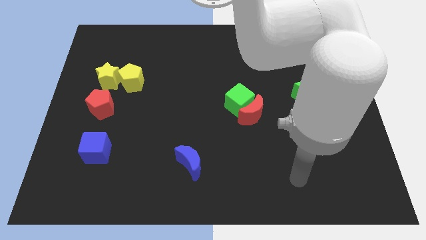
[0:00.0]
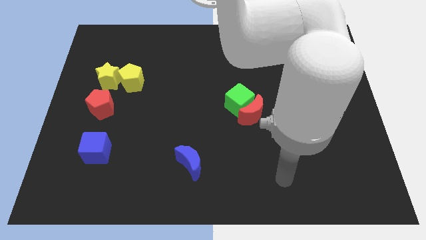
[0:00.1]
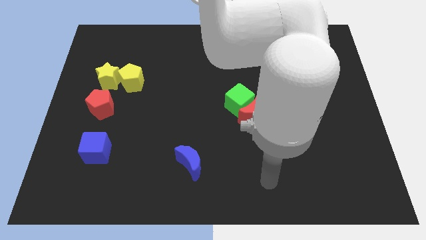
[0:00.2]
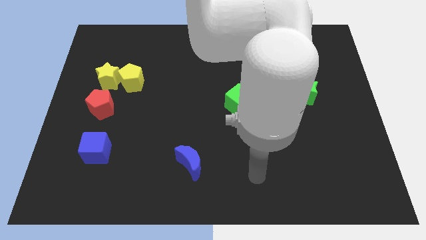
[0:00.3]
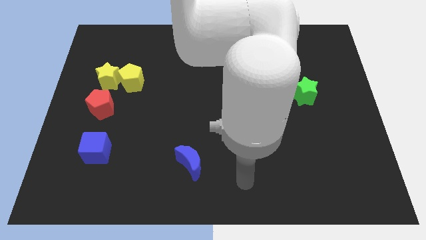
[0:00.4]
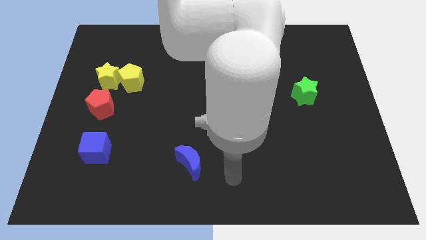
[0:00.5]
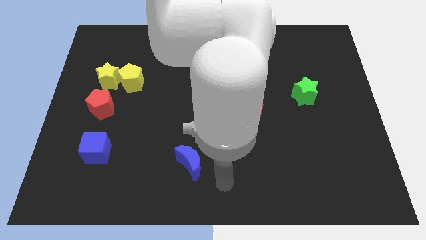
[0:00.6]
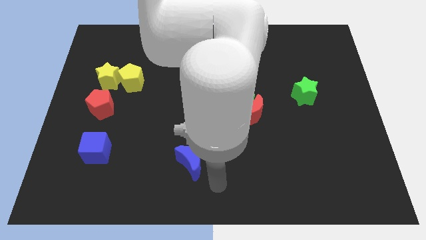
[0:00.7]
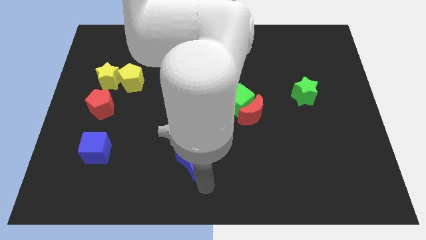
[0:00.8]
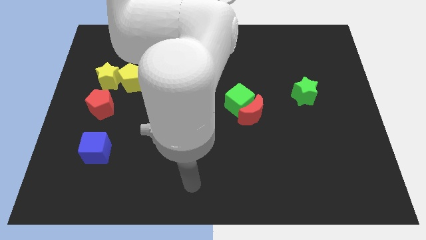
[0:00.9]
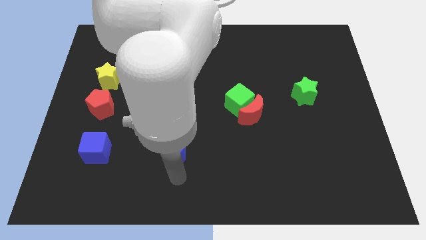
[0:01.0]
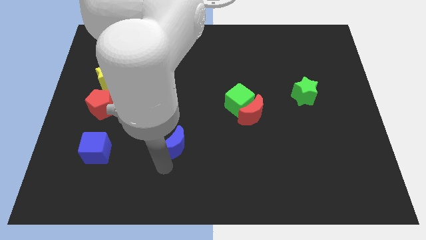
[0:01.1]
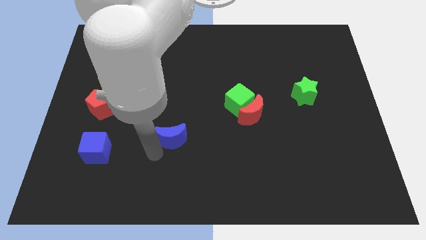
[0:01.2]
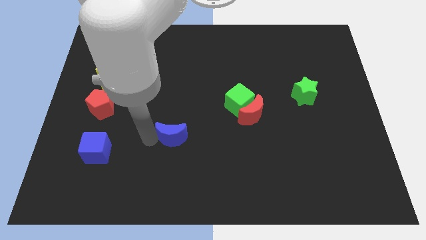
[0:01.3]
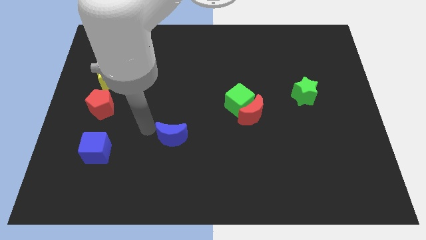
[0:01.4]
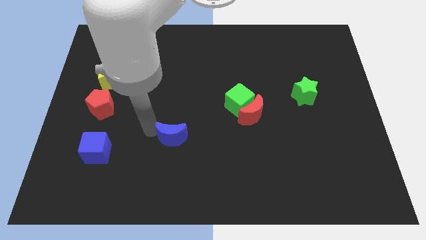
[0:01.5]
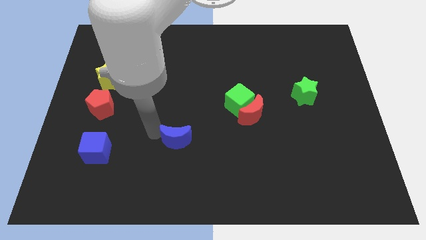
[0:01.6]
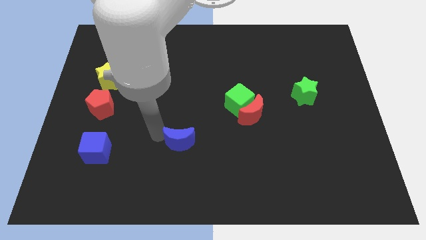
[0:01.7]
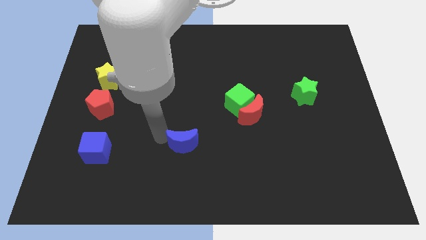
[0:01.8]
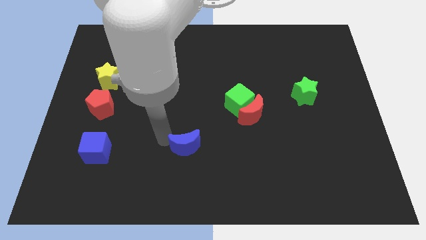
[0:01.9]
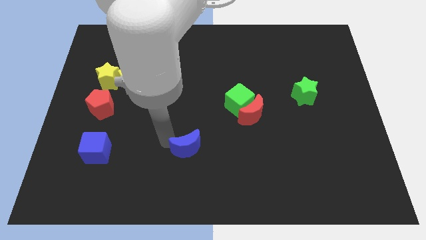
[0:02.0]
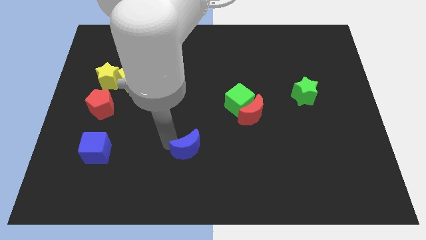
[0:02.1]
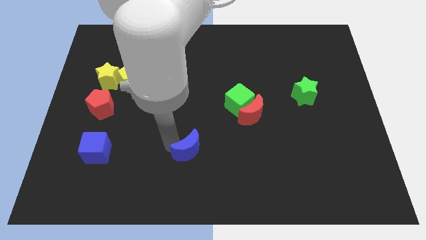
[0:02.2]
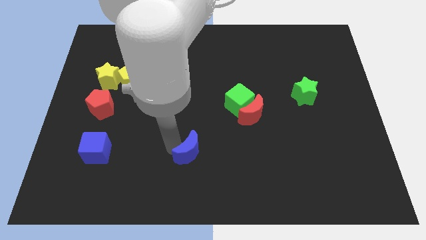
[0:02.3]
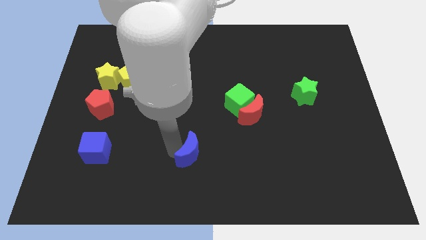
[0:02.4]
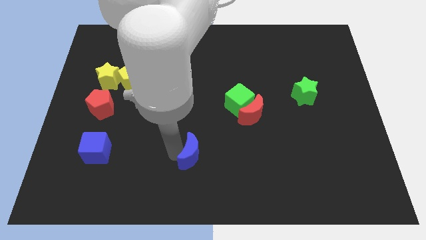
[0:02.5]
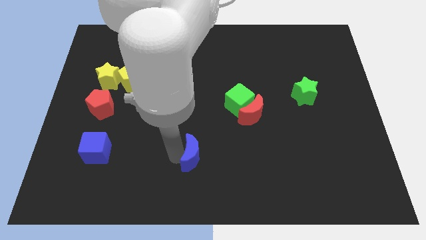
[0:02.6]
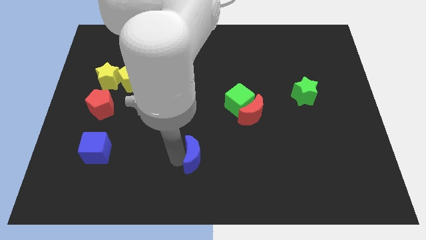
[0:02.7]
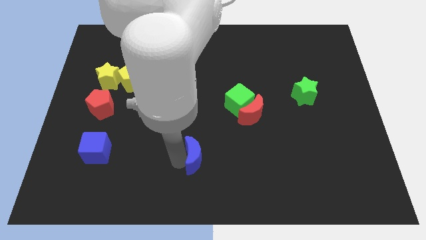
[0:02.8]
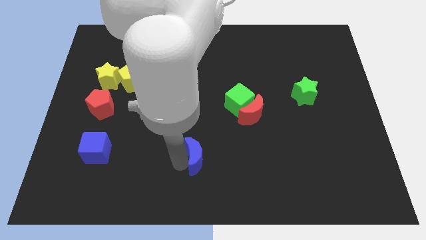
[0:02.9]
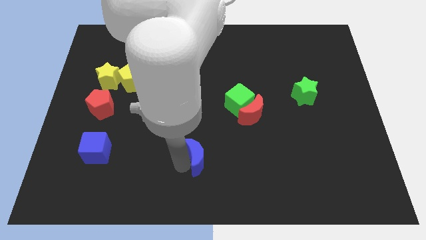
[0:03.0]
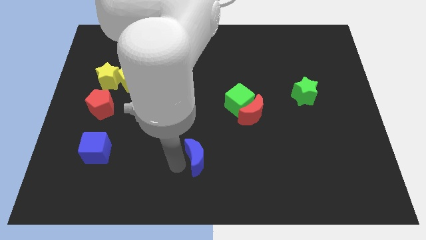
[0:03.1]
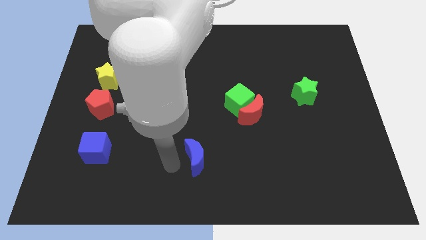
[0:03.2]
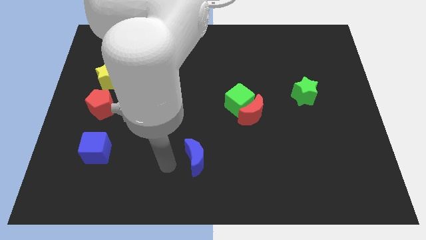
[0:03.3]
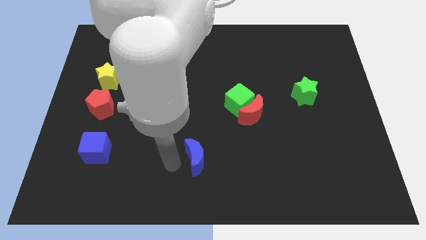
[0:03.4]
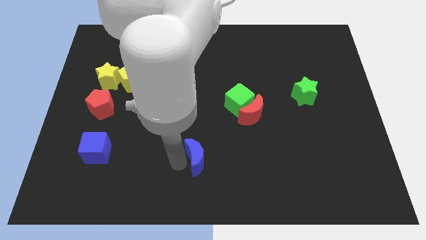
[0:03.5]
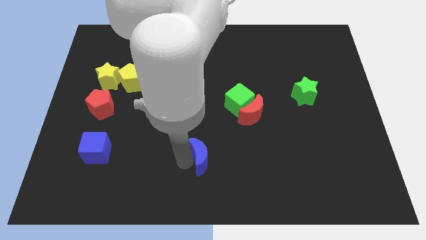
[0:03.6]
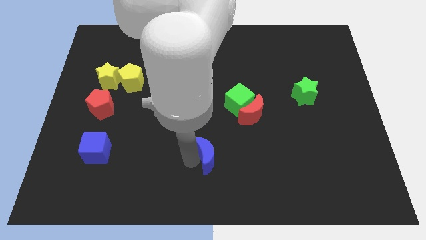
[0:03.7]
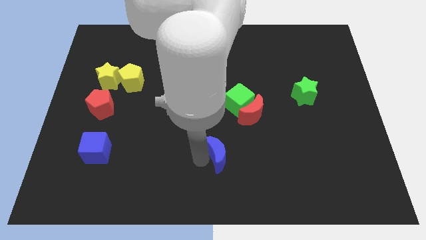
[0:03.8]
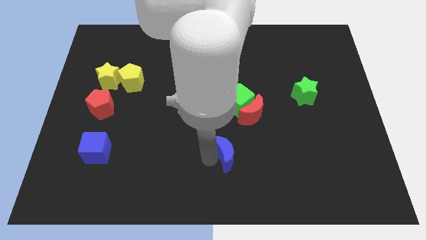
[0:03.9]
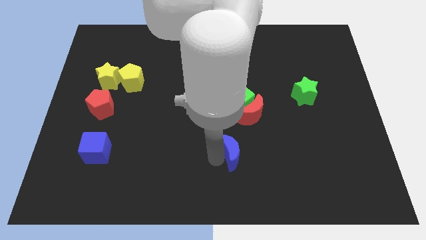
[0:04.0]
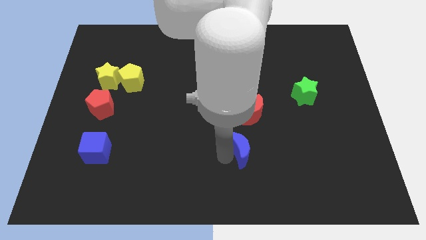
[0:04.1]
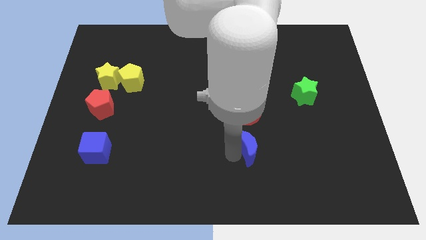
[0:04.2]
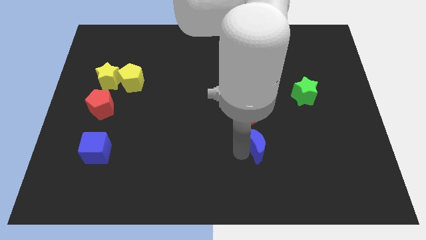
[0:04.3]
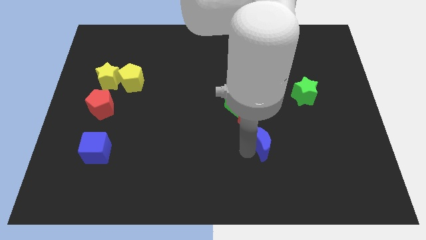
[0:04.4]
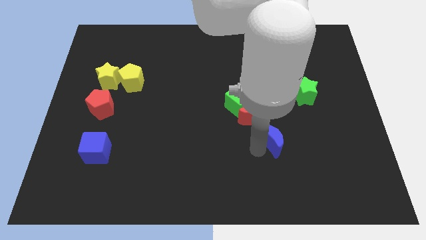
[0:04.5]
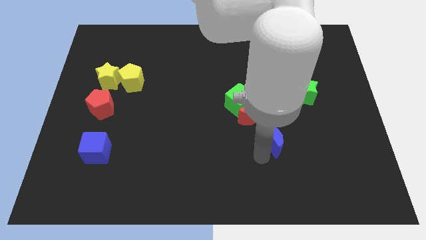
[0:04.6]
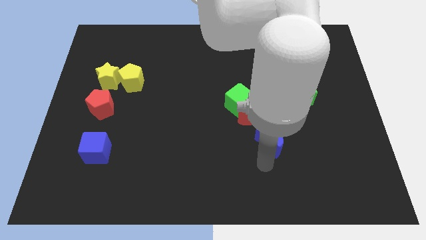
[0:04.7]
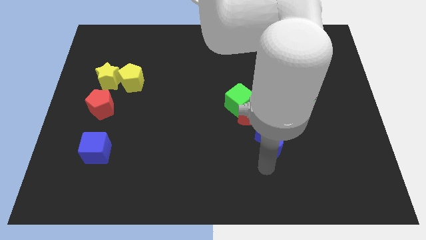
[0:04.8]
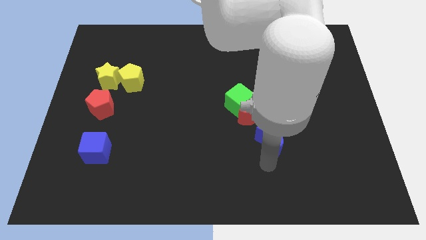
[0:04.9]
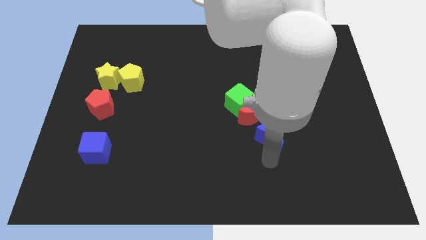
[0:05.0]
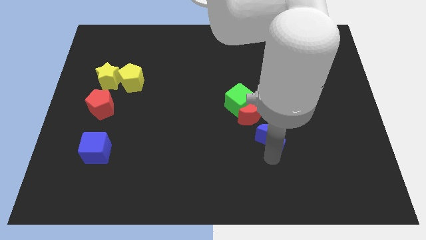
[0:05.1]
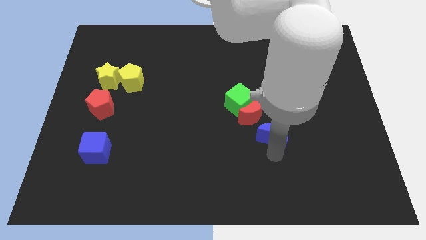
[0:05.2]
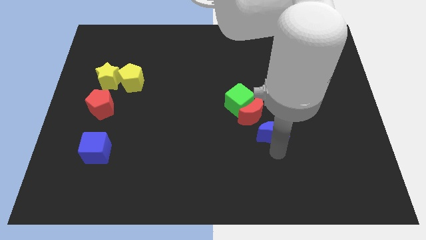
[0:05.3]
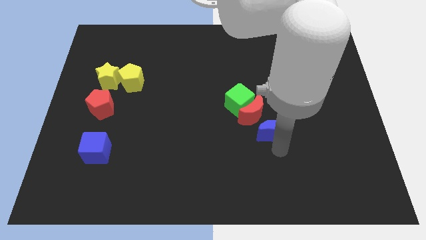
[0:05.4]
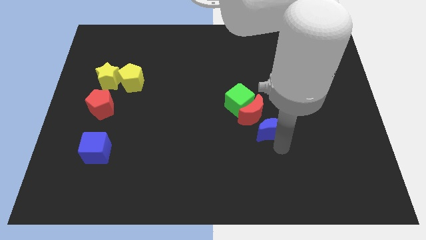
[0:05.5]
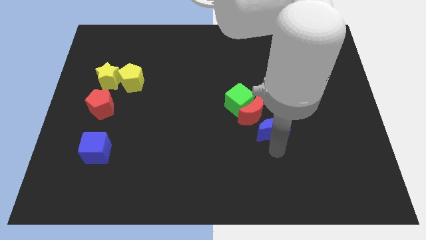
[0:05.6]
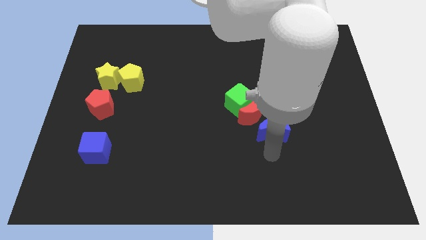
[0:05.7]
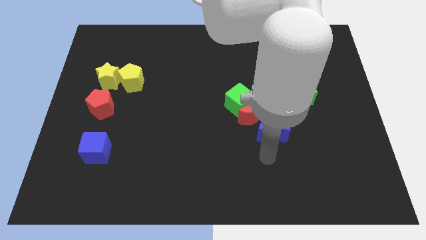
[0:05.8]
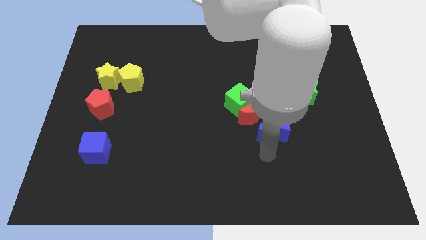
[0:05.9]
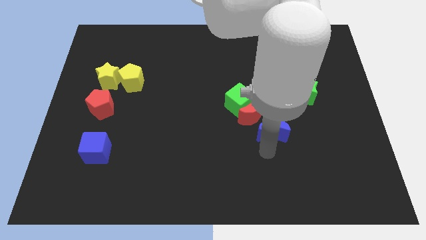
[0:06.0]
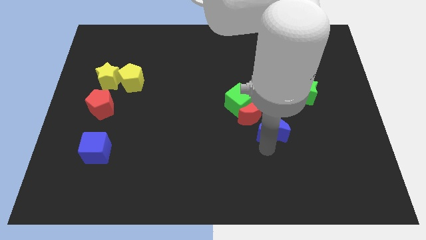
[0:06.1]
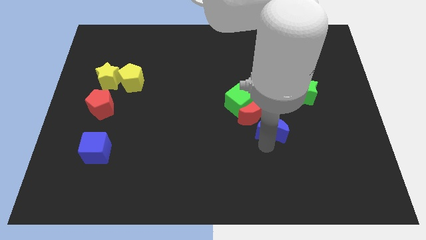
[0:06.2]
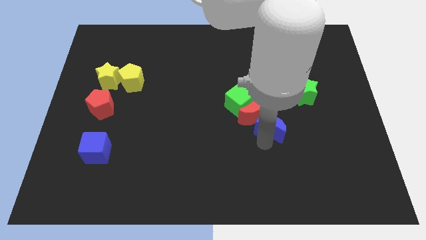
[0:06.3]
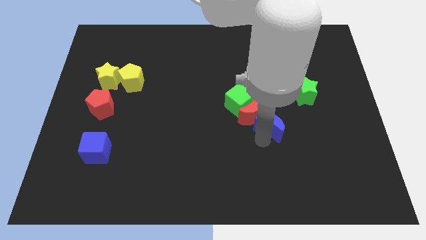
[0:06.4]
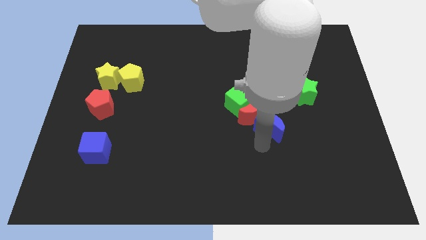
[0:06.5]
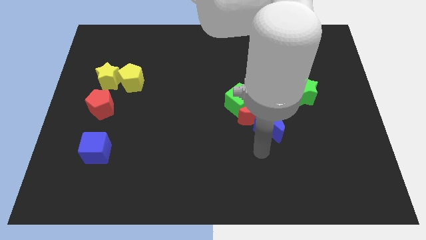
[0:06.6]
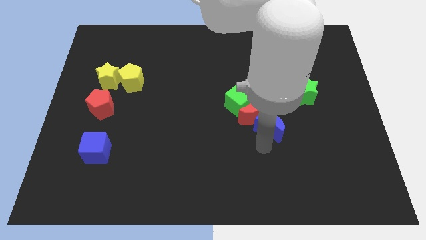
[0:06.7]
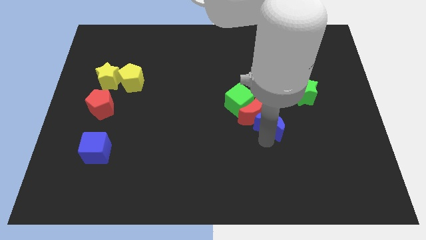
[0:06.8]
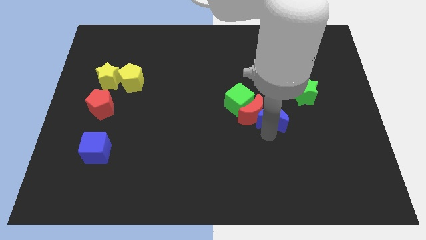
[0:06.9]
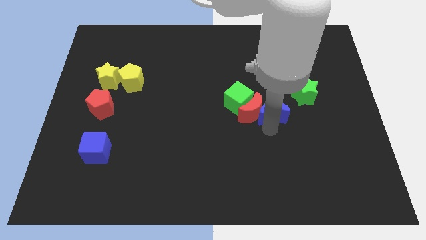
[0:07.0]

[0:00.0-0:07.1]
push the blue moon diagonally up and right

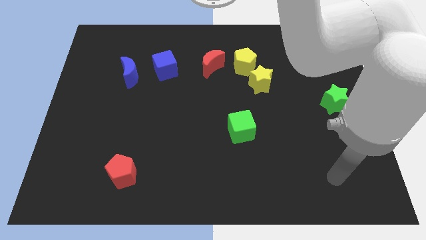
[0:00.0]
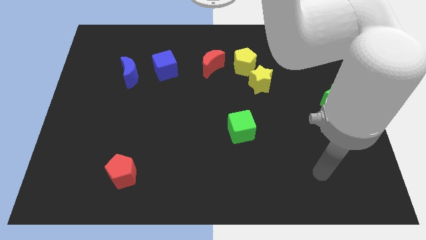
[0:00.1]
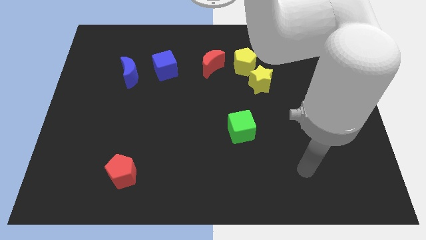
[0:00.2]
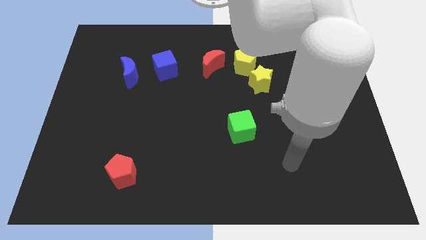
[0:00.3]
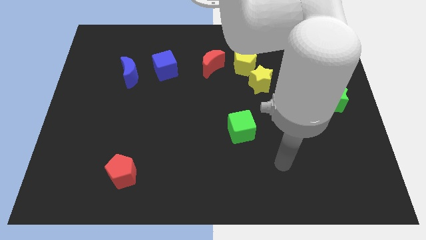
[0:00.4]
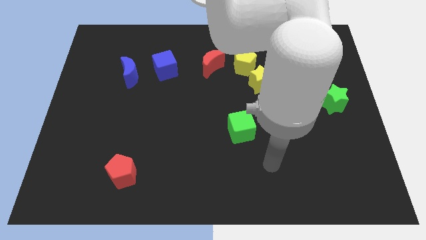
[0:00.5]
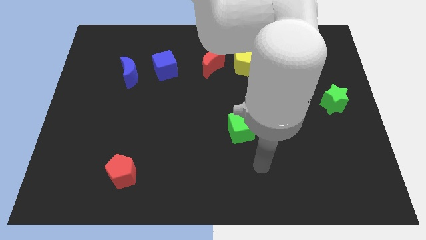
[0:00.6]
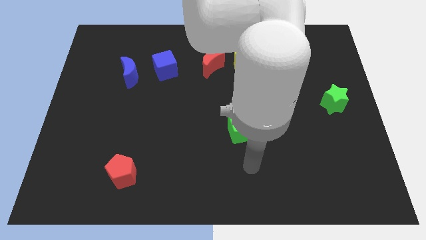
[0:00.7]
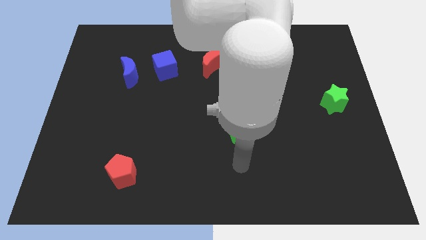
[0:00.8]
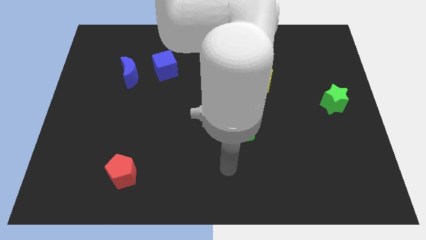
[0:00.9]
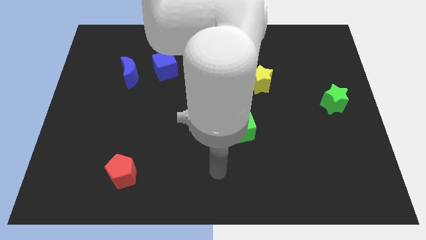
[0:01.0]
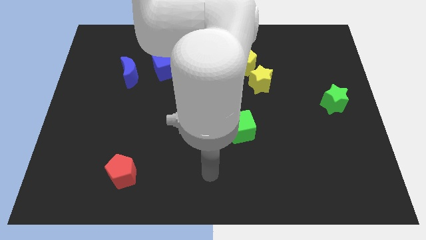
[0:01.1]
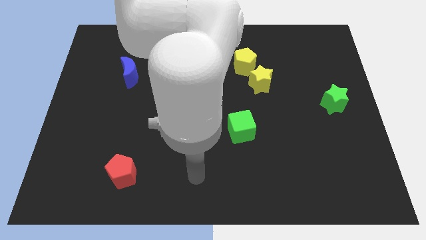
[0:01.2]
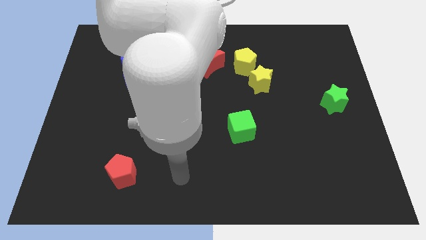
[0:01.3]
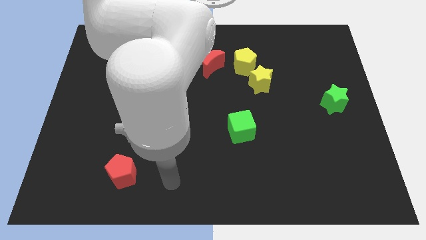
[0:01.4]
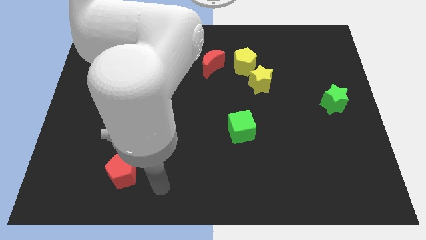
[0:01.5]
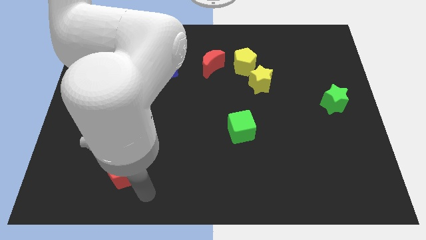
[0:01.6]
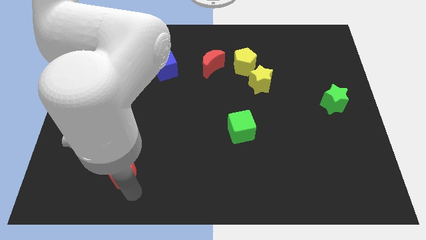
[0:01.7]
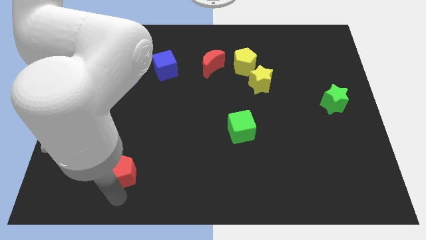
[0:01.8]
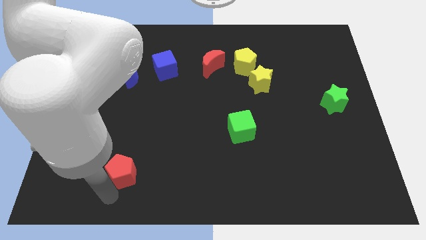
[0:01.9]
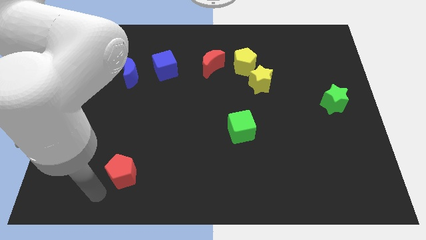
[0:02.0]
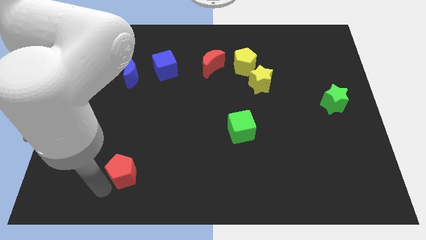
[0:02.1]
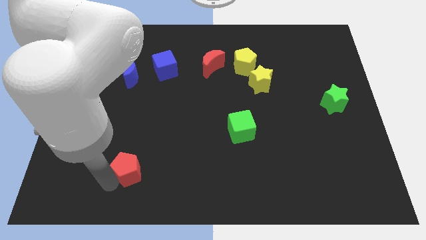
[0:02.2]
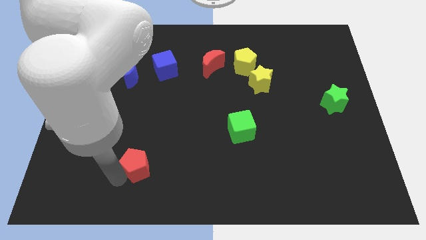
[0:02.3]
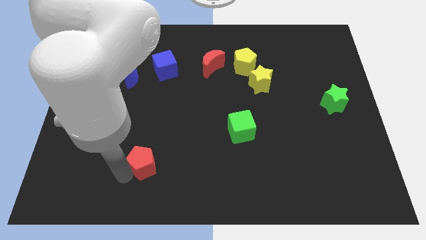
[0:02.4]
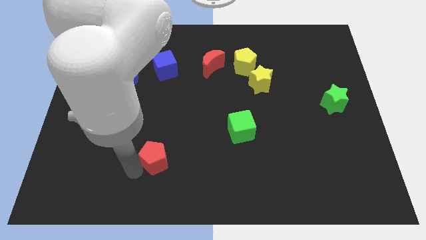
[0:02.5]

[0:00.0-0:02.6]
move the red pentagon upwards and right a bit
